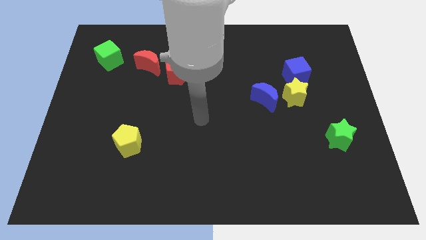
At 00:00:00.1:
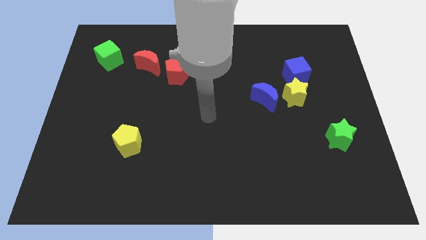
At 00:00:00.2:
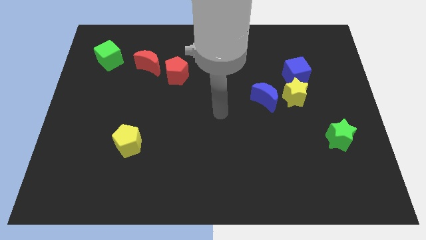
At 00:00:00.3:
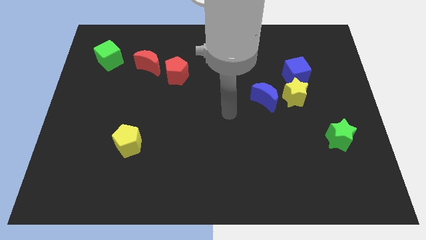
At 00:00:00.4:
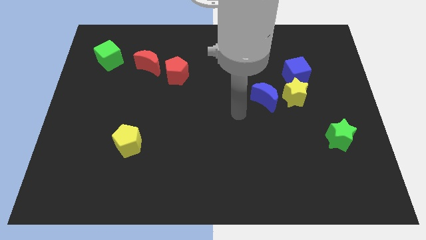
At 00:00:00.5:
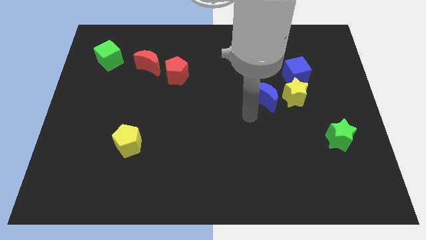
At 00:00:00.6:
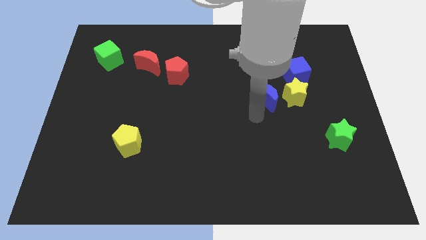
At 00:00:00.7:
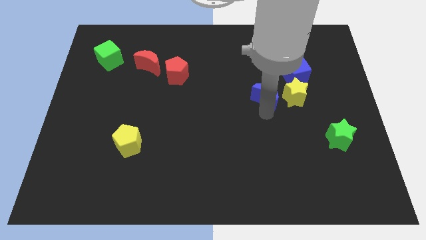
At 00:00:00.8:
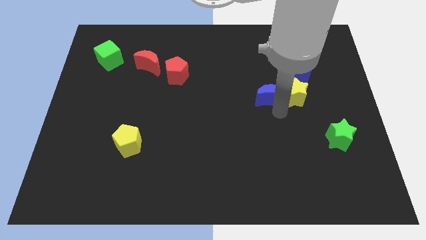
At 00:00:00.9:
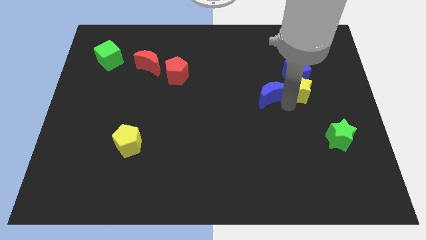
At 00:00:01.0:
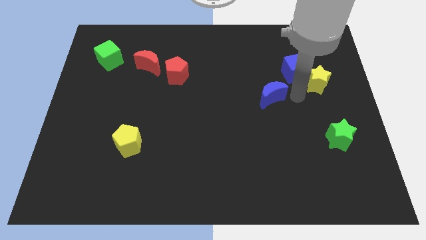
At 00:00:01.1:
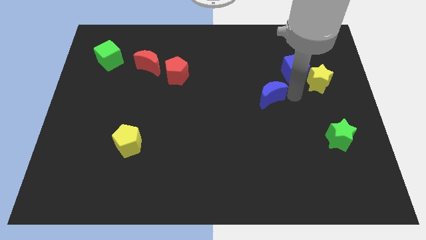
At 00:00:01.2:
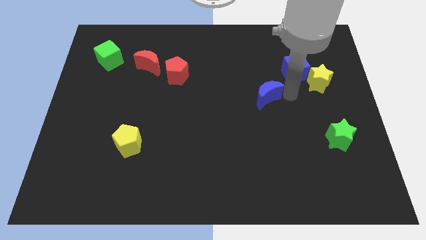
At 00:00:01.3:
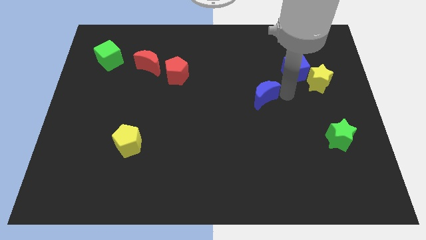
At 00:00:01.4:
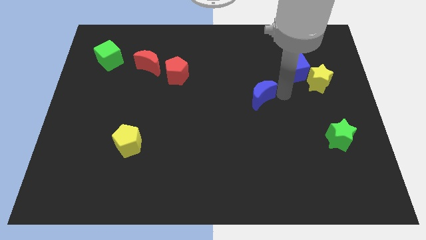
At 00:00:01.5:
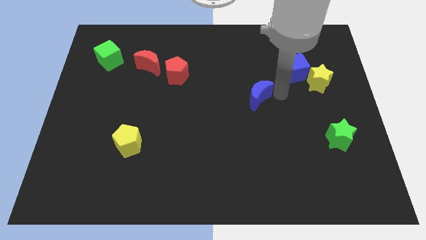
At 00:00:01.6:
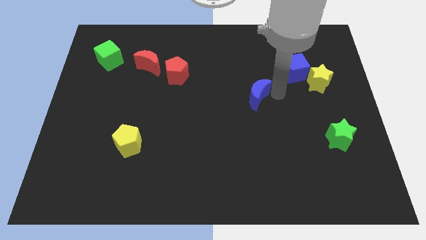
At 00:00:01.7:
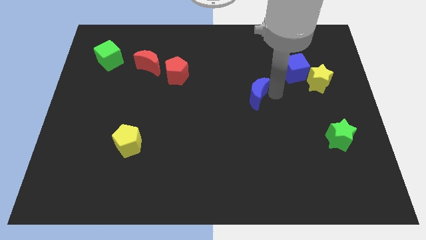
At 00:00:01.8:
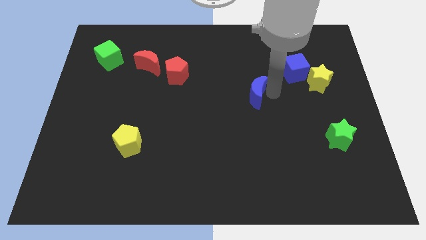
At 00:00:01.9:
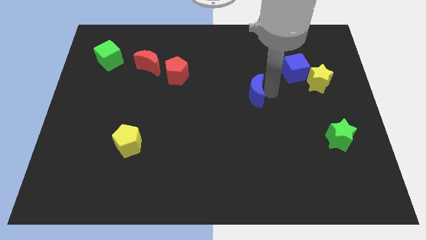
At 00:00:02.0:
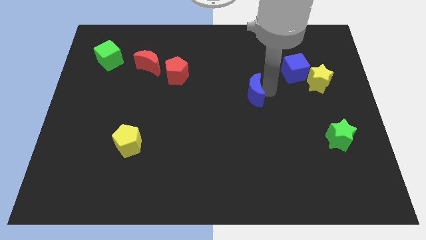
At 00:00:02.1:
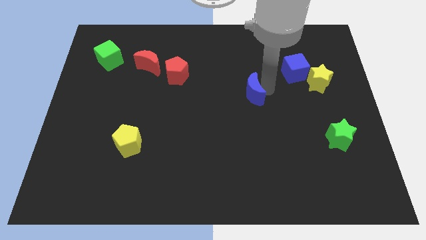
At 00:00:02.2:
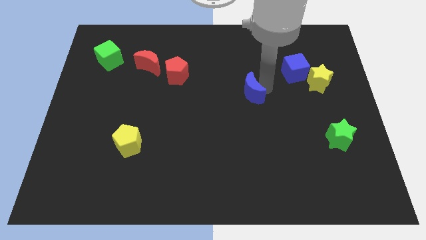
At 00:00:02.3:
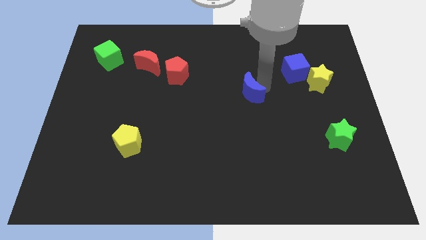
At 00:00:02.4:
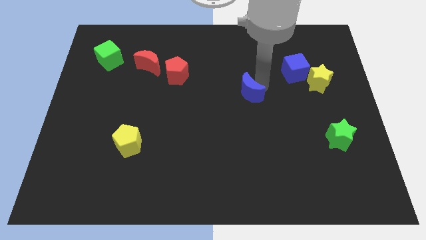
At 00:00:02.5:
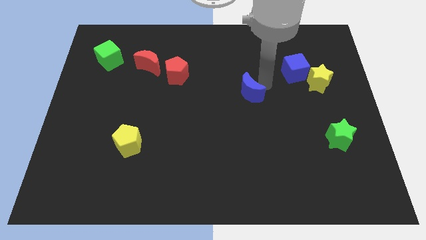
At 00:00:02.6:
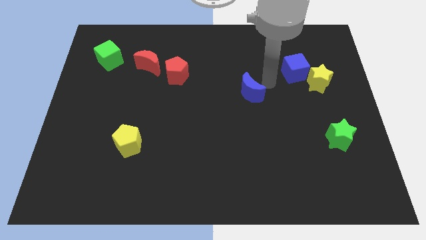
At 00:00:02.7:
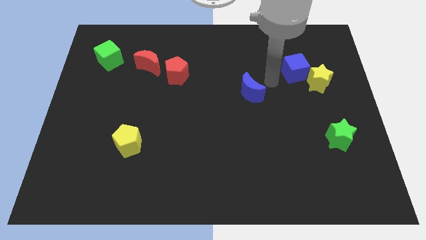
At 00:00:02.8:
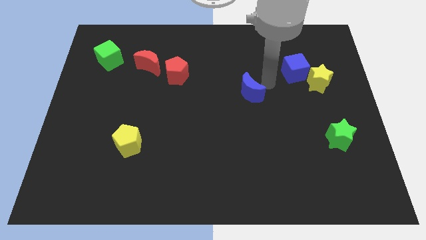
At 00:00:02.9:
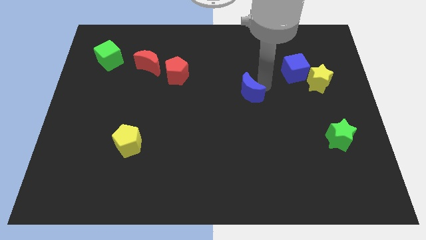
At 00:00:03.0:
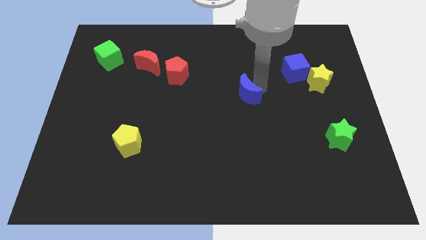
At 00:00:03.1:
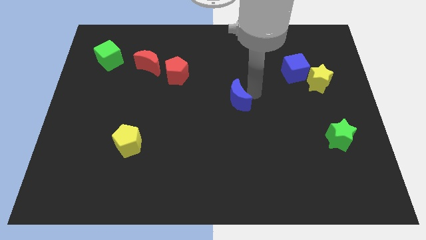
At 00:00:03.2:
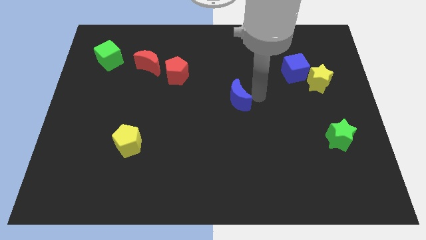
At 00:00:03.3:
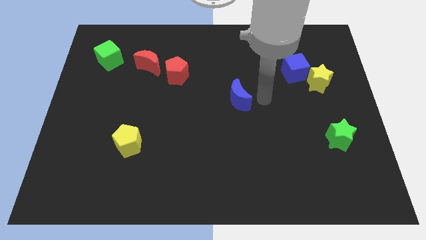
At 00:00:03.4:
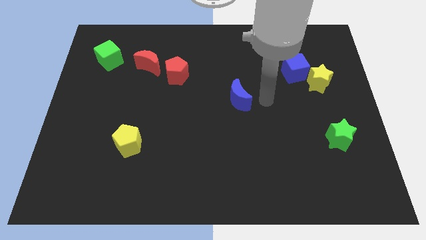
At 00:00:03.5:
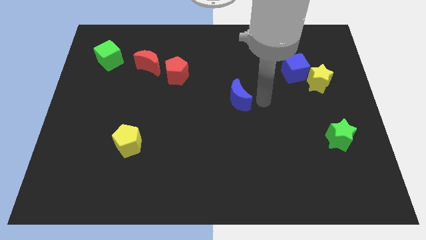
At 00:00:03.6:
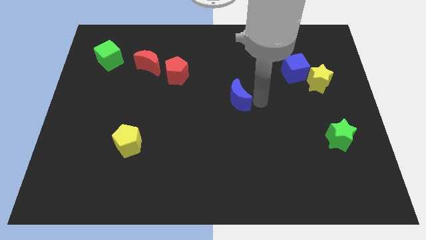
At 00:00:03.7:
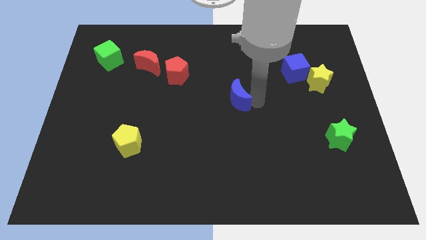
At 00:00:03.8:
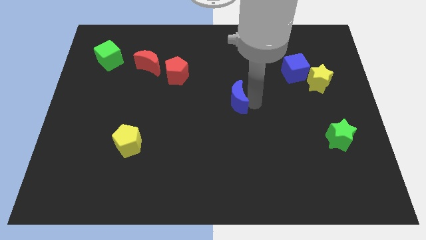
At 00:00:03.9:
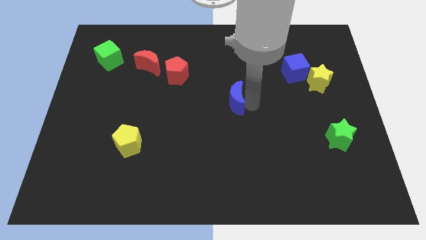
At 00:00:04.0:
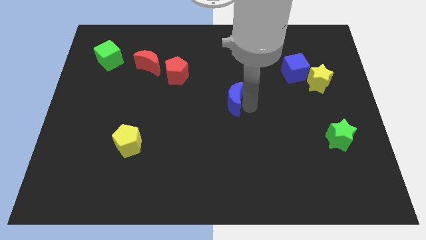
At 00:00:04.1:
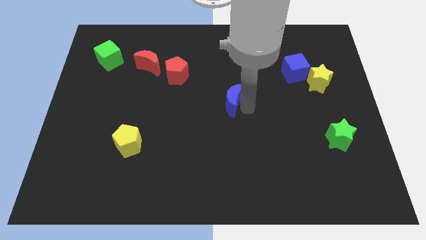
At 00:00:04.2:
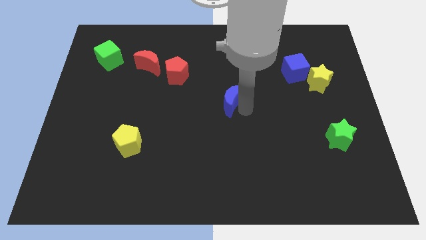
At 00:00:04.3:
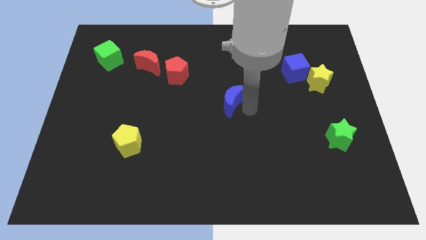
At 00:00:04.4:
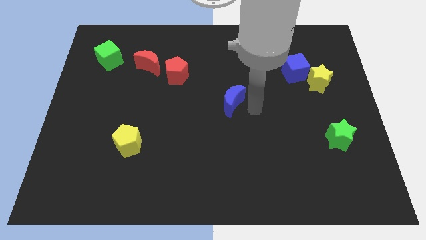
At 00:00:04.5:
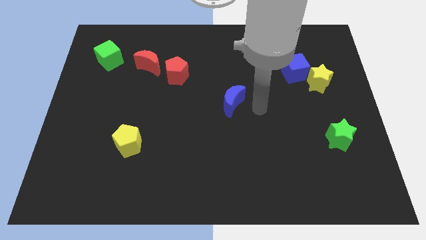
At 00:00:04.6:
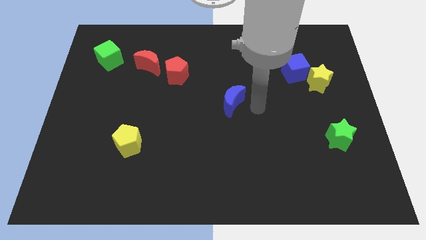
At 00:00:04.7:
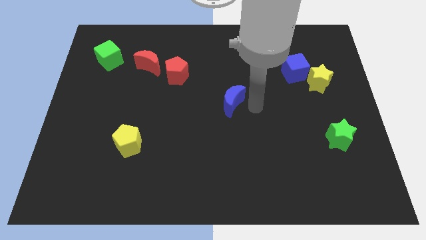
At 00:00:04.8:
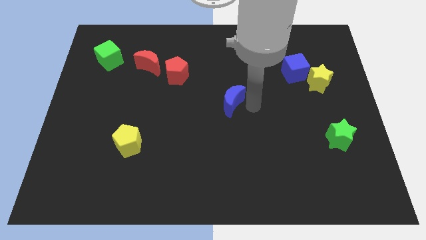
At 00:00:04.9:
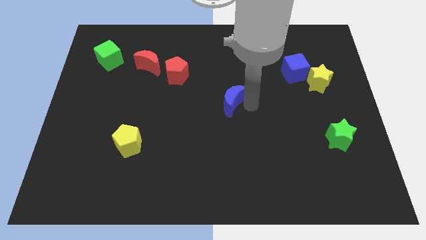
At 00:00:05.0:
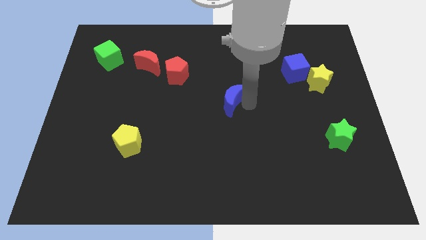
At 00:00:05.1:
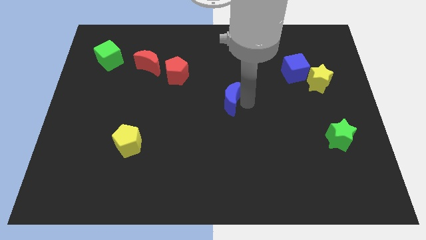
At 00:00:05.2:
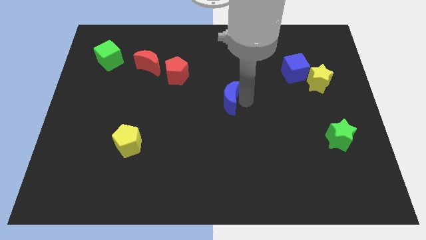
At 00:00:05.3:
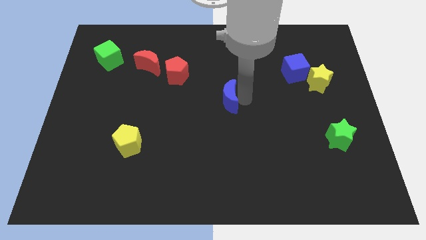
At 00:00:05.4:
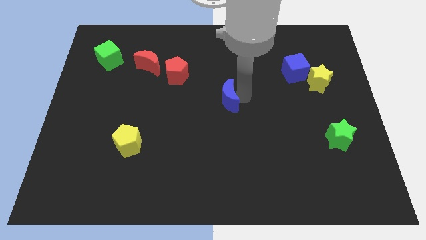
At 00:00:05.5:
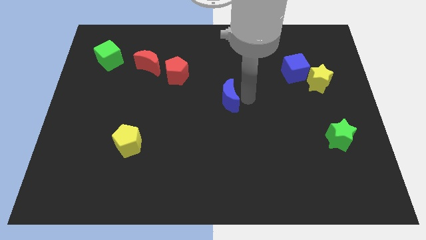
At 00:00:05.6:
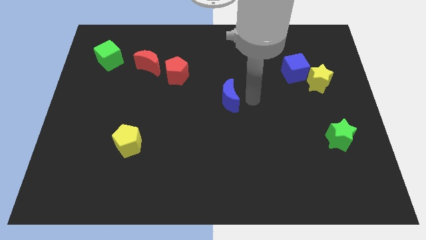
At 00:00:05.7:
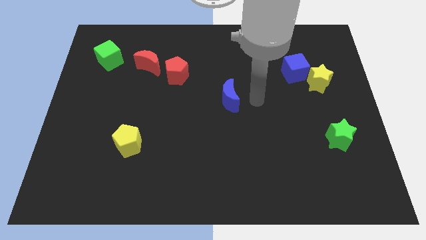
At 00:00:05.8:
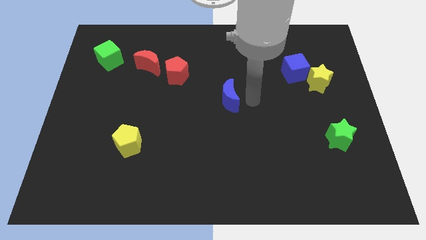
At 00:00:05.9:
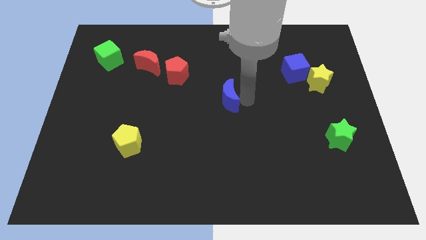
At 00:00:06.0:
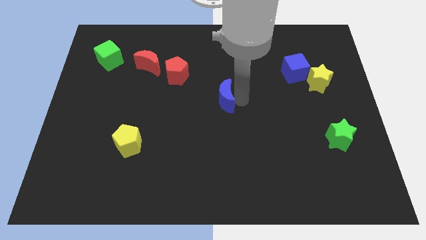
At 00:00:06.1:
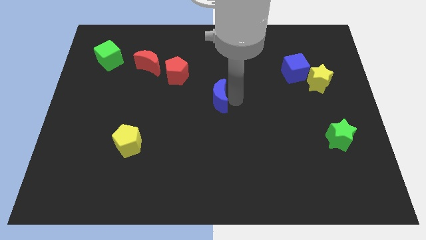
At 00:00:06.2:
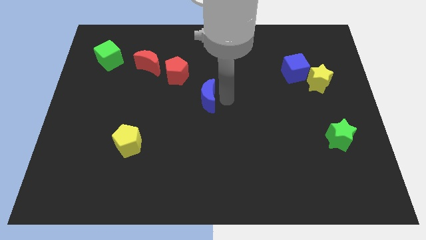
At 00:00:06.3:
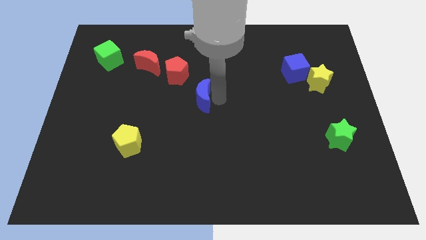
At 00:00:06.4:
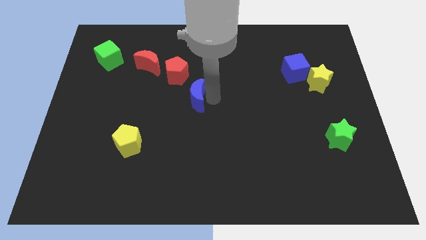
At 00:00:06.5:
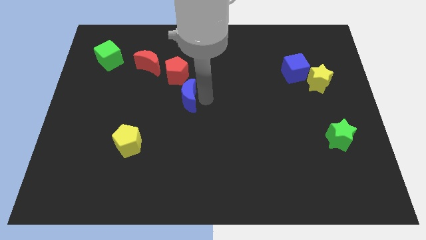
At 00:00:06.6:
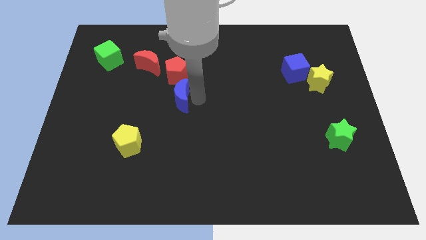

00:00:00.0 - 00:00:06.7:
move the blue moon left

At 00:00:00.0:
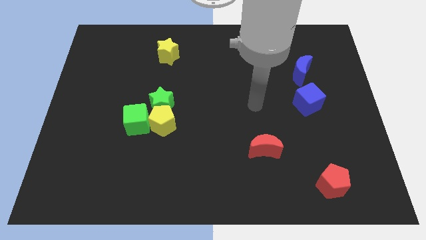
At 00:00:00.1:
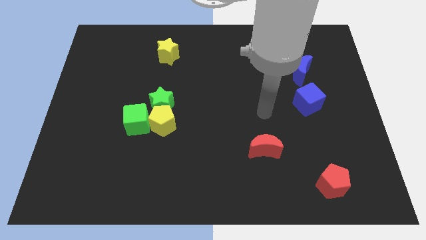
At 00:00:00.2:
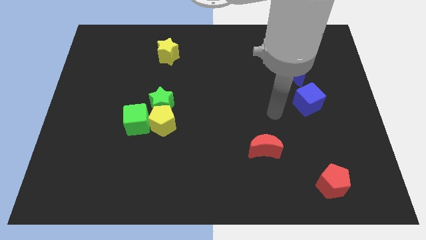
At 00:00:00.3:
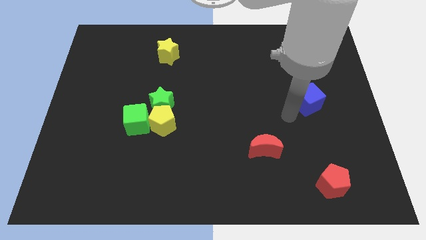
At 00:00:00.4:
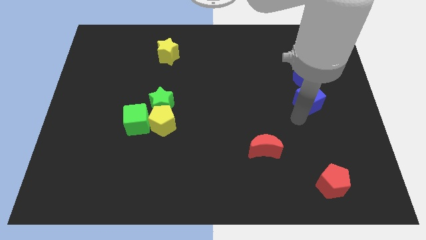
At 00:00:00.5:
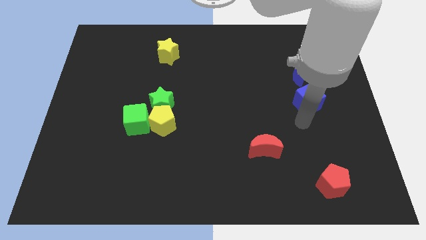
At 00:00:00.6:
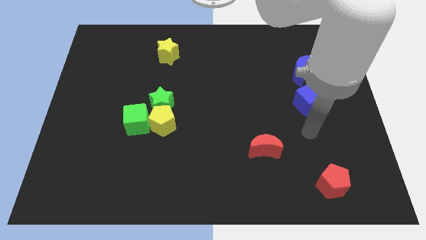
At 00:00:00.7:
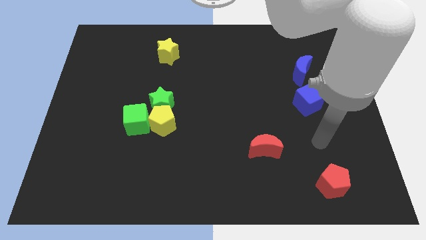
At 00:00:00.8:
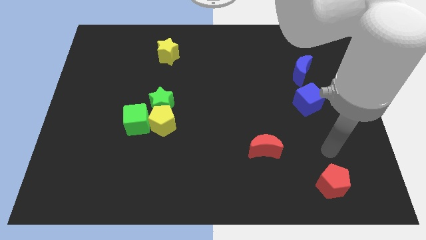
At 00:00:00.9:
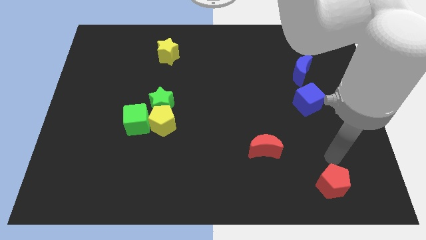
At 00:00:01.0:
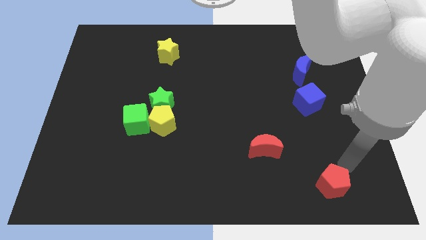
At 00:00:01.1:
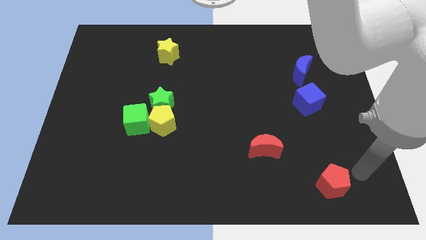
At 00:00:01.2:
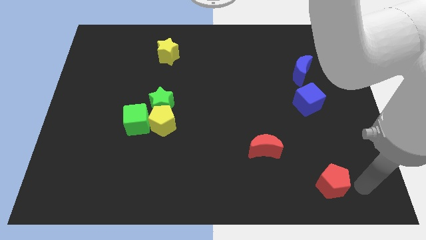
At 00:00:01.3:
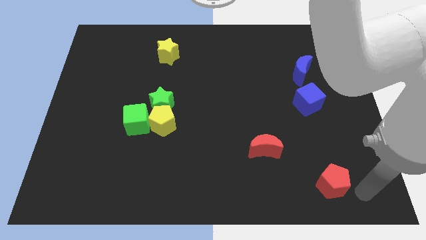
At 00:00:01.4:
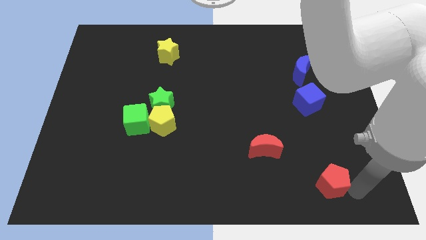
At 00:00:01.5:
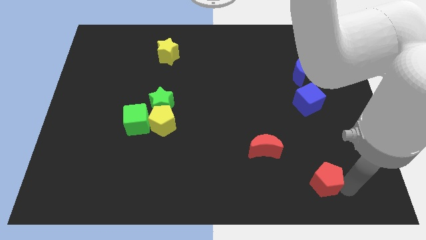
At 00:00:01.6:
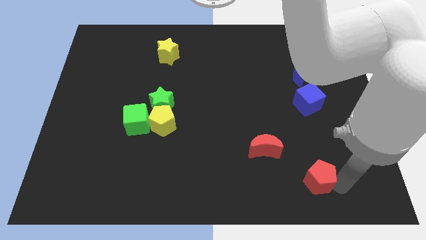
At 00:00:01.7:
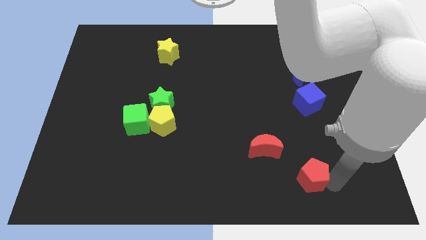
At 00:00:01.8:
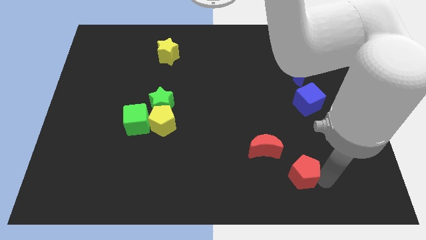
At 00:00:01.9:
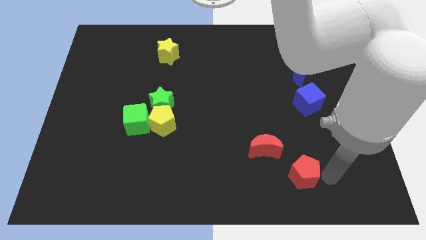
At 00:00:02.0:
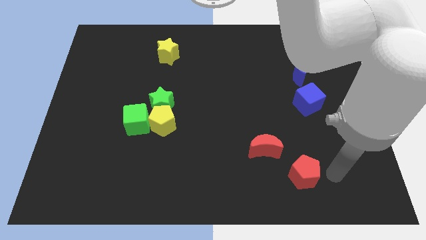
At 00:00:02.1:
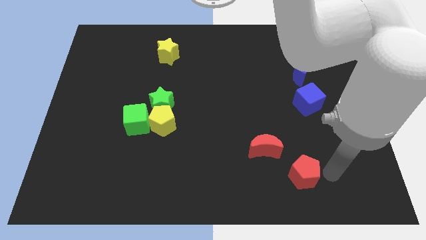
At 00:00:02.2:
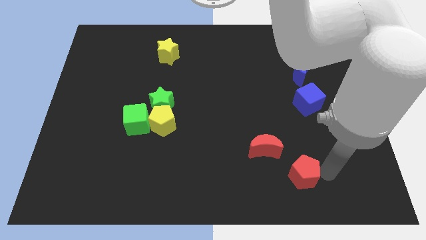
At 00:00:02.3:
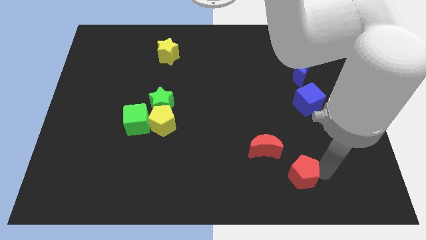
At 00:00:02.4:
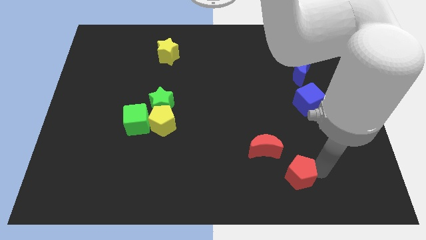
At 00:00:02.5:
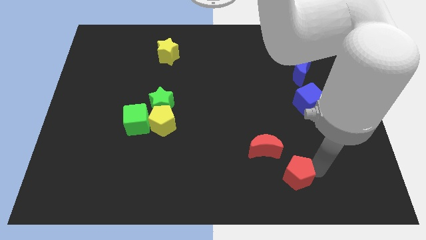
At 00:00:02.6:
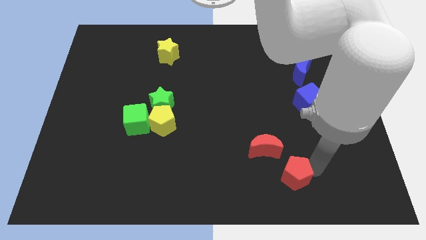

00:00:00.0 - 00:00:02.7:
slightly push the red pentagon to the left
